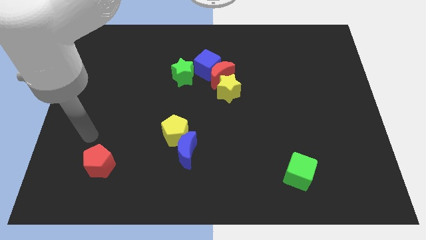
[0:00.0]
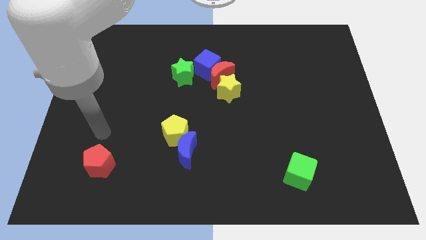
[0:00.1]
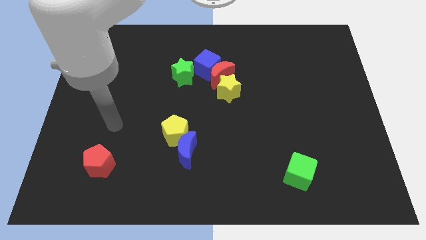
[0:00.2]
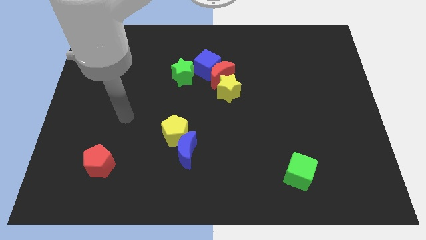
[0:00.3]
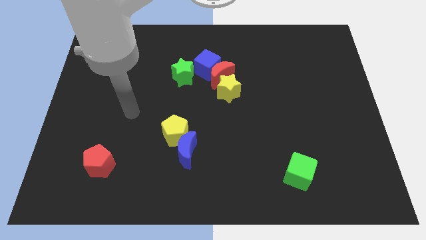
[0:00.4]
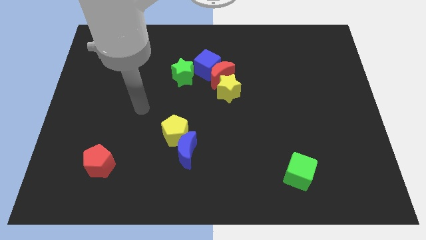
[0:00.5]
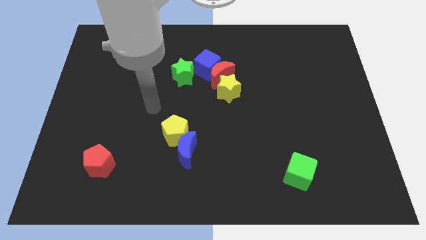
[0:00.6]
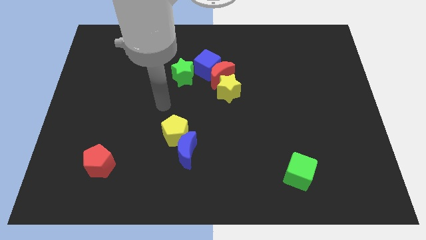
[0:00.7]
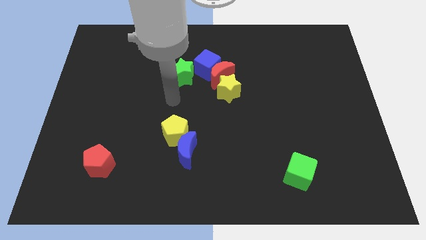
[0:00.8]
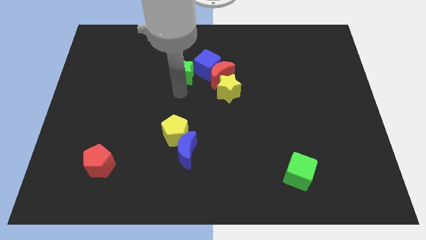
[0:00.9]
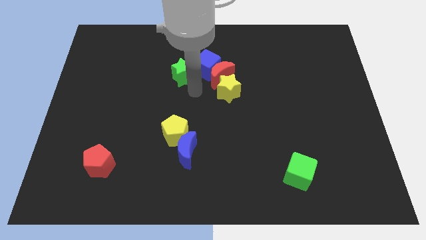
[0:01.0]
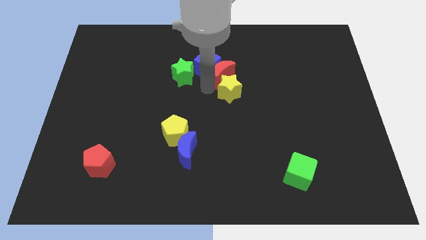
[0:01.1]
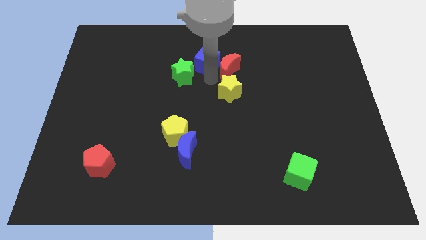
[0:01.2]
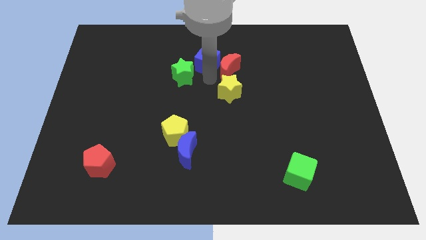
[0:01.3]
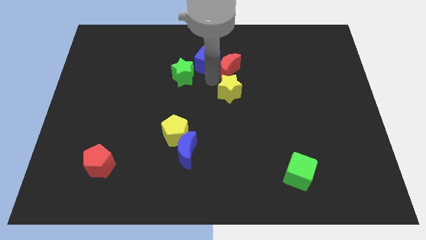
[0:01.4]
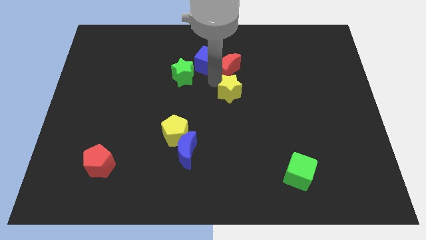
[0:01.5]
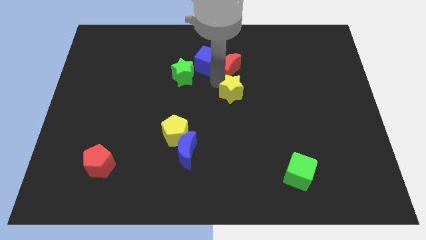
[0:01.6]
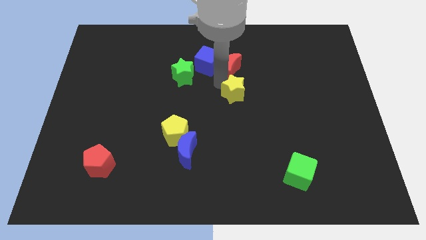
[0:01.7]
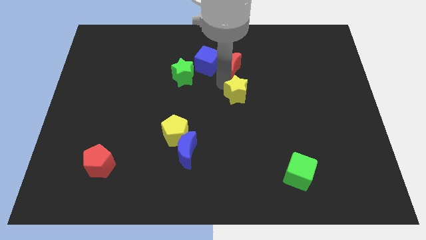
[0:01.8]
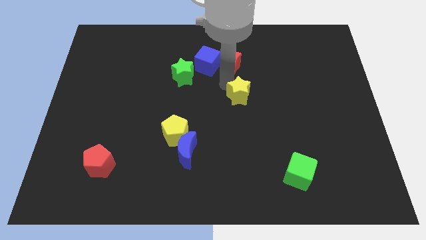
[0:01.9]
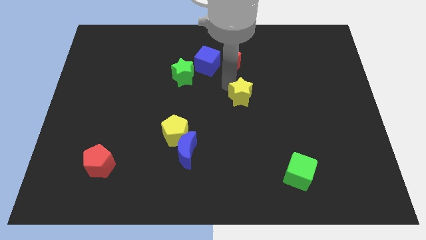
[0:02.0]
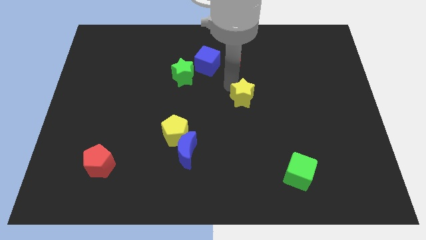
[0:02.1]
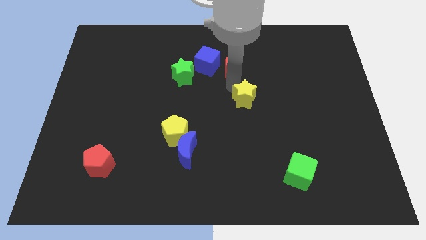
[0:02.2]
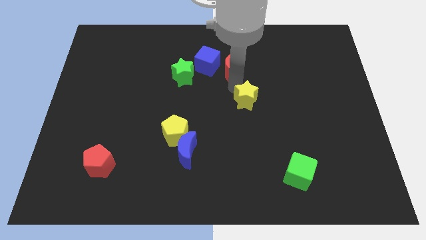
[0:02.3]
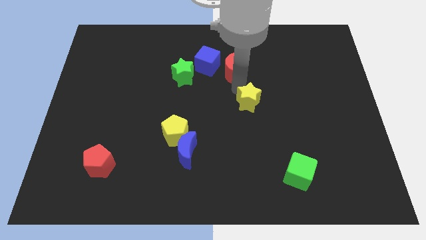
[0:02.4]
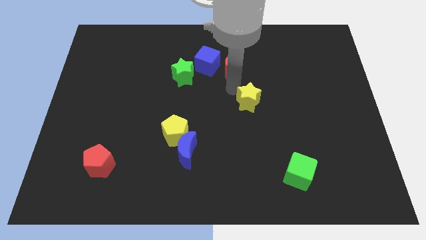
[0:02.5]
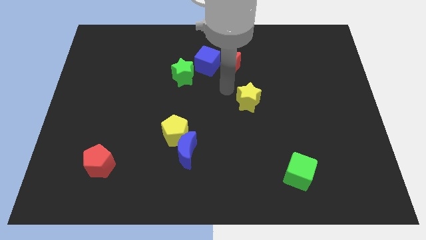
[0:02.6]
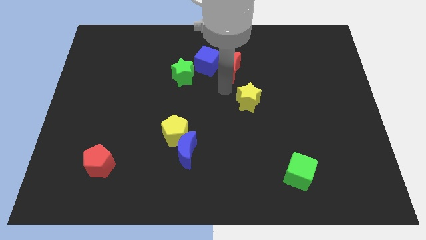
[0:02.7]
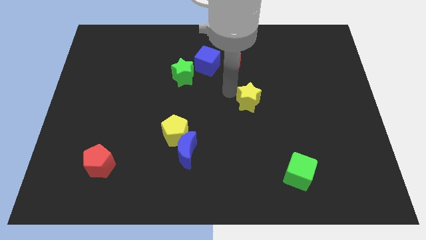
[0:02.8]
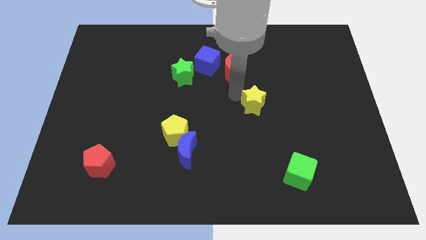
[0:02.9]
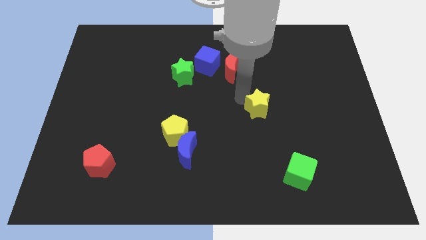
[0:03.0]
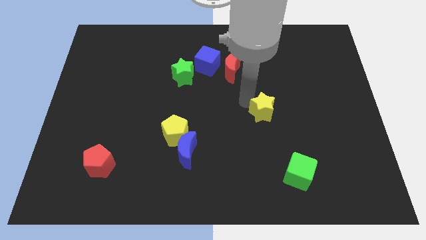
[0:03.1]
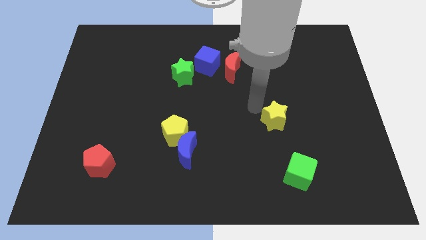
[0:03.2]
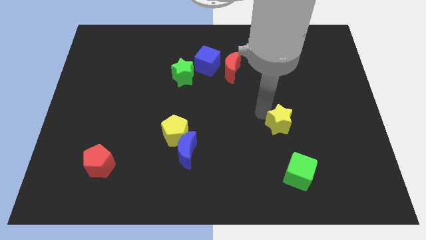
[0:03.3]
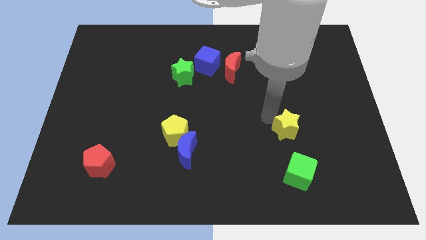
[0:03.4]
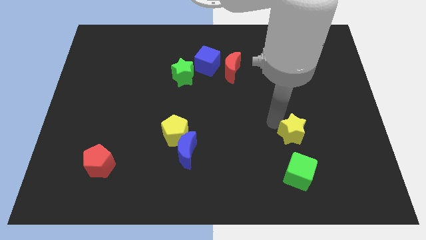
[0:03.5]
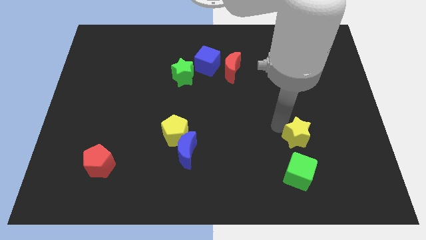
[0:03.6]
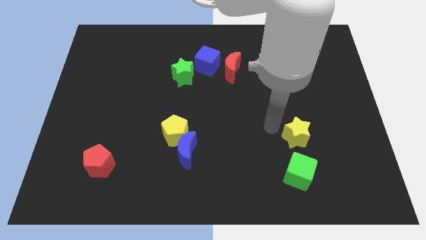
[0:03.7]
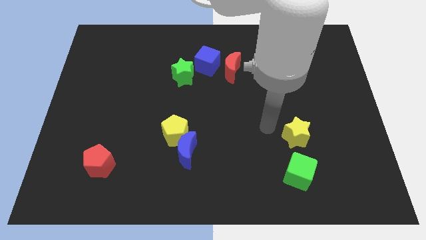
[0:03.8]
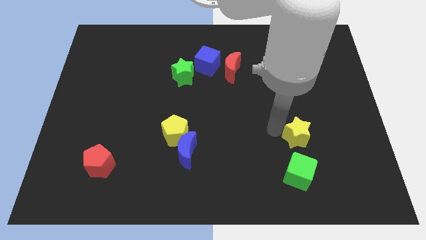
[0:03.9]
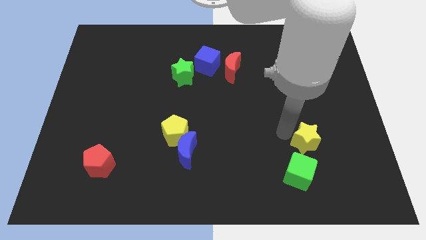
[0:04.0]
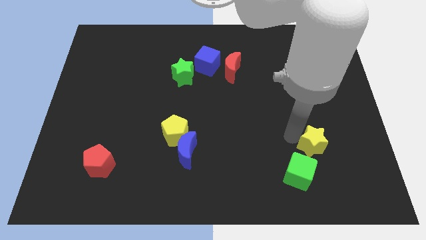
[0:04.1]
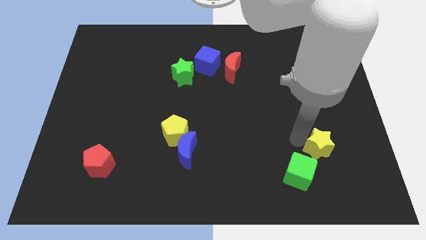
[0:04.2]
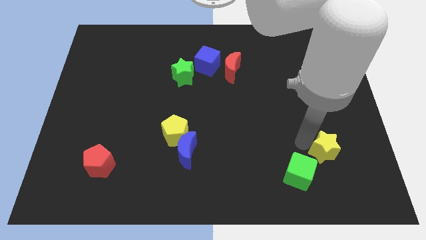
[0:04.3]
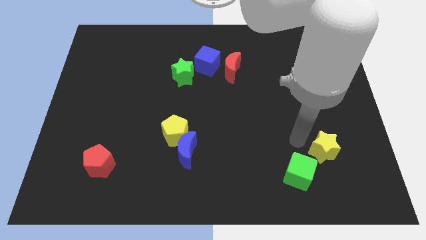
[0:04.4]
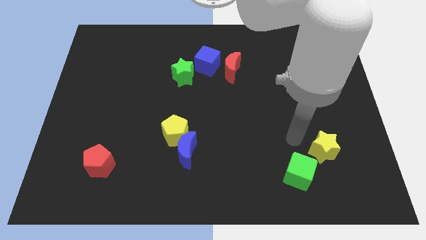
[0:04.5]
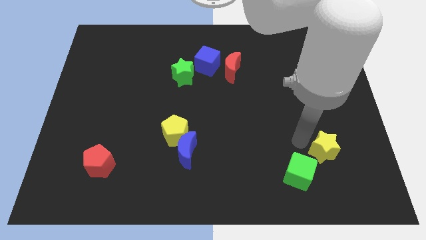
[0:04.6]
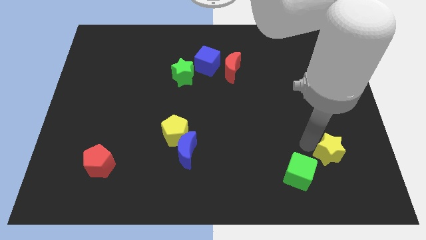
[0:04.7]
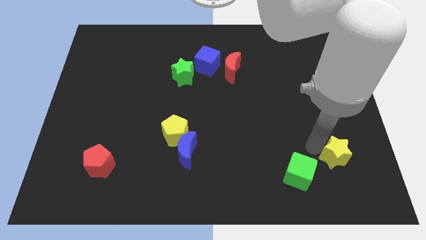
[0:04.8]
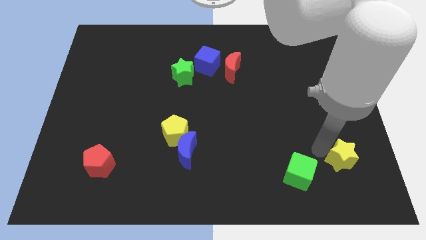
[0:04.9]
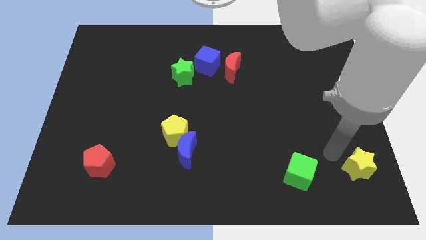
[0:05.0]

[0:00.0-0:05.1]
push the yellow star to the bottom right

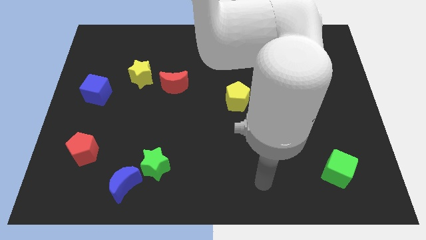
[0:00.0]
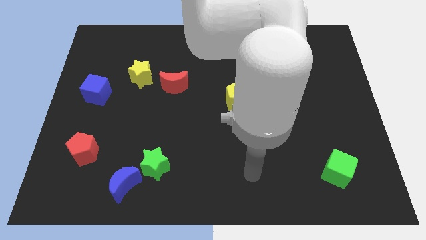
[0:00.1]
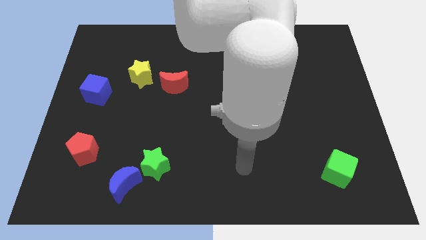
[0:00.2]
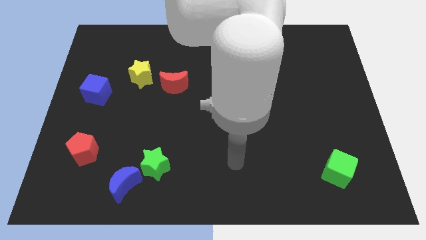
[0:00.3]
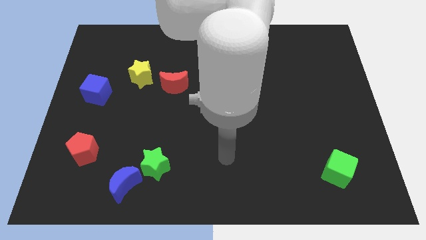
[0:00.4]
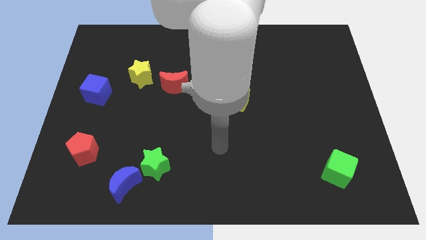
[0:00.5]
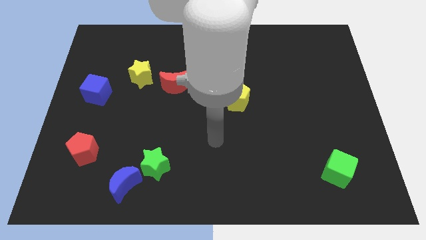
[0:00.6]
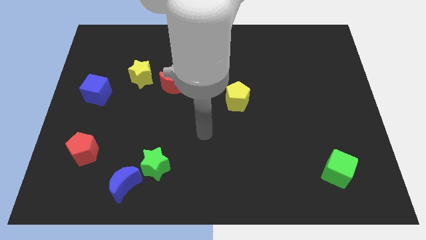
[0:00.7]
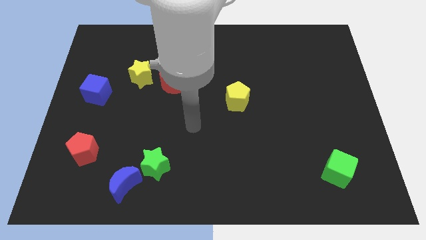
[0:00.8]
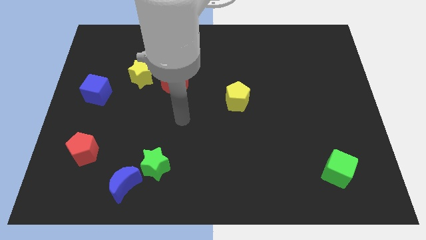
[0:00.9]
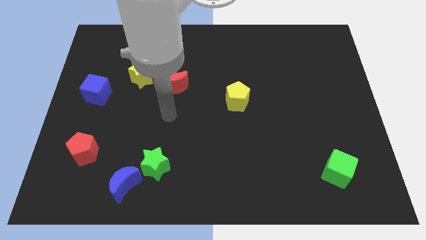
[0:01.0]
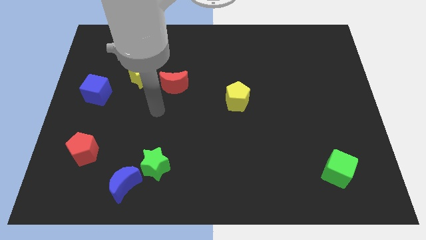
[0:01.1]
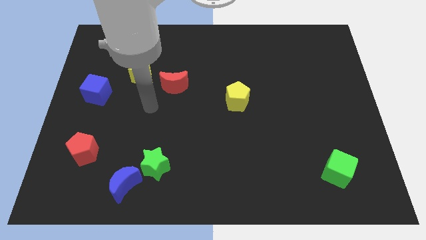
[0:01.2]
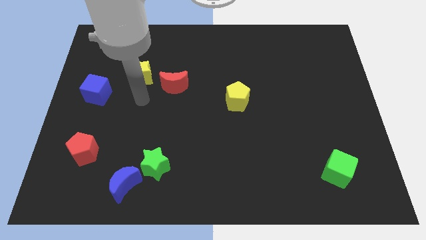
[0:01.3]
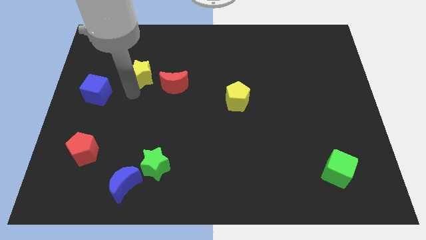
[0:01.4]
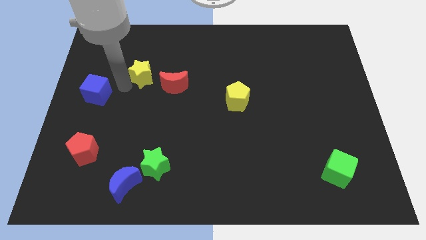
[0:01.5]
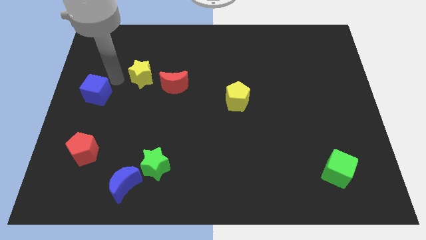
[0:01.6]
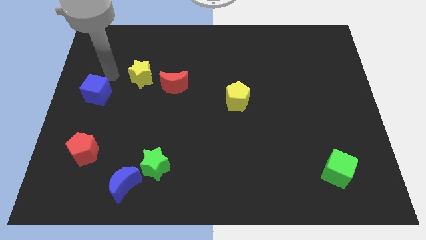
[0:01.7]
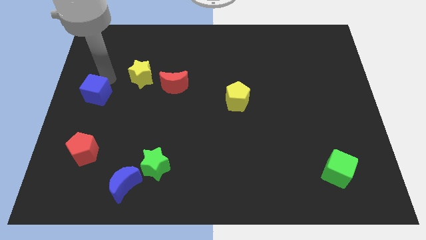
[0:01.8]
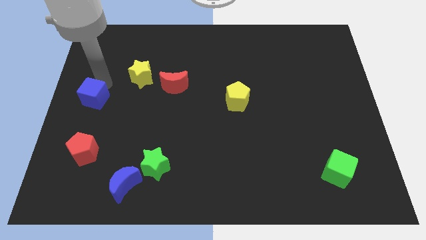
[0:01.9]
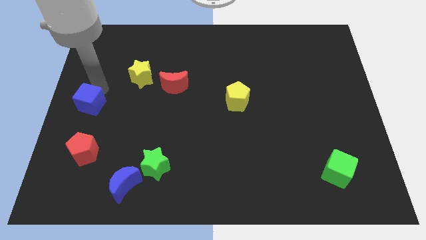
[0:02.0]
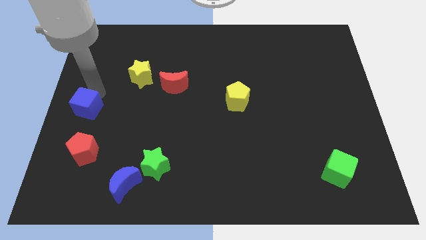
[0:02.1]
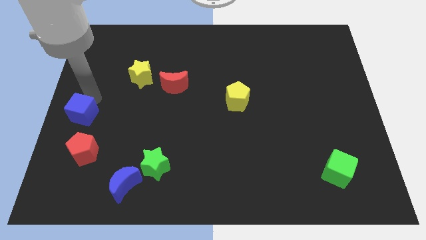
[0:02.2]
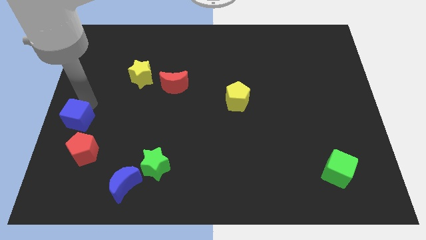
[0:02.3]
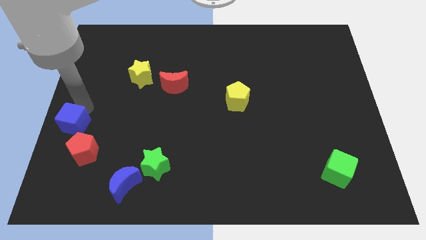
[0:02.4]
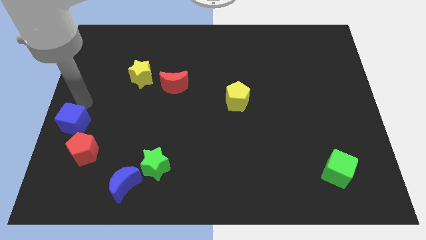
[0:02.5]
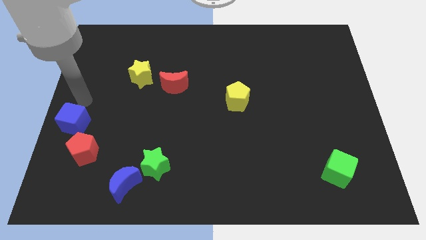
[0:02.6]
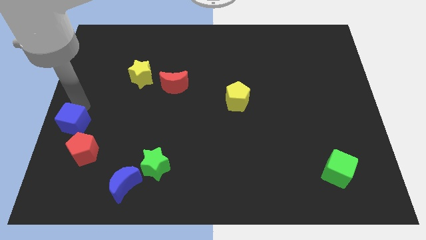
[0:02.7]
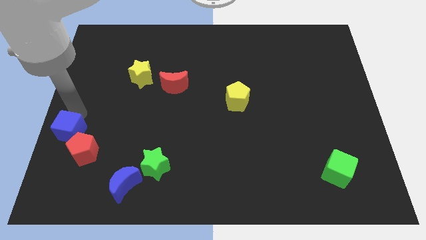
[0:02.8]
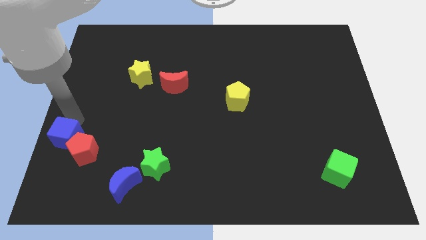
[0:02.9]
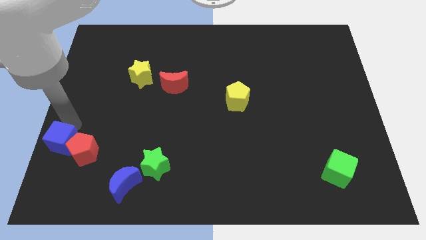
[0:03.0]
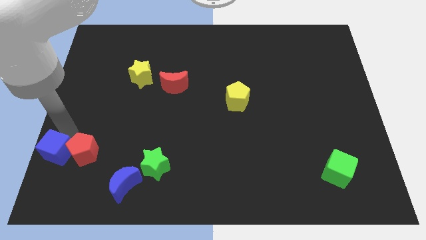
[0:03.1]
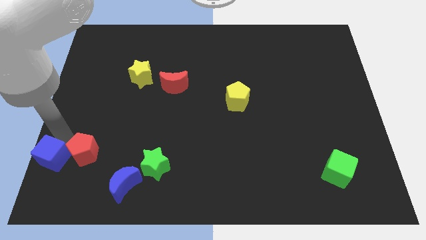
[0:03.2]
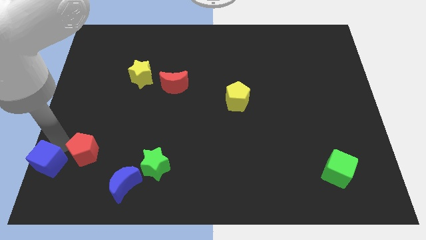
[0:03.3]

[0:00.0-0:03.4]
slide the blue cube to the bottom left corner
